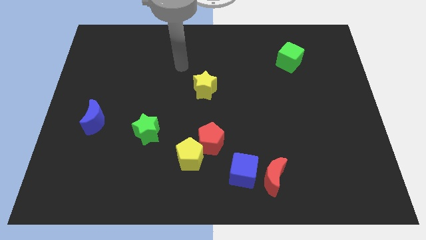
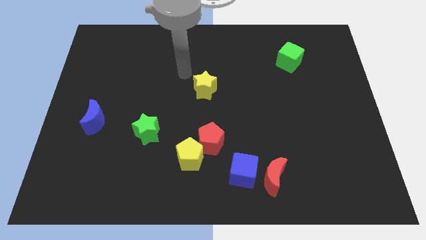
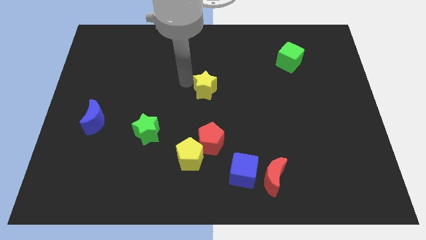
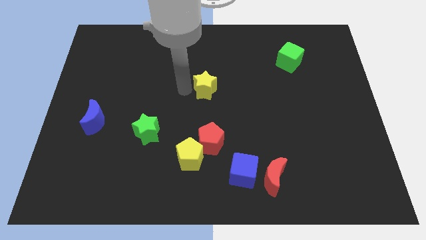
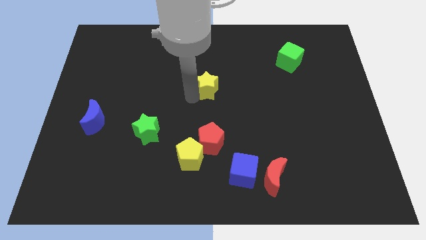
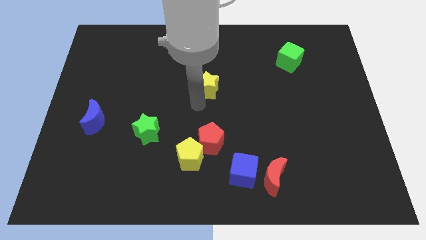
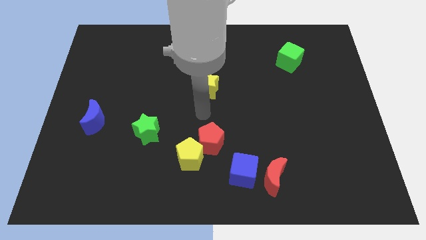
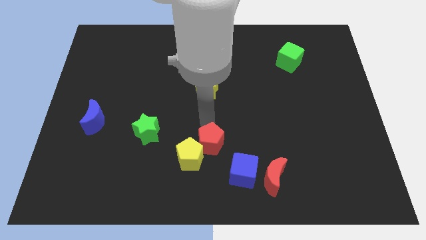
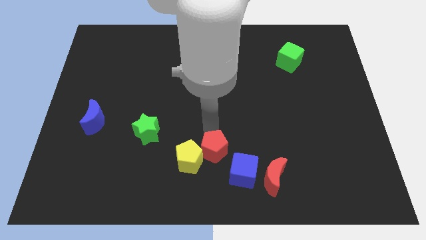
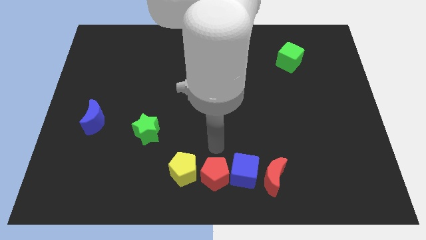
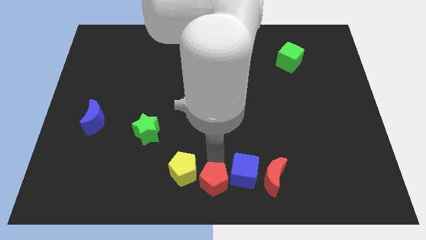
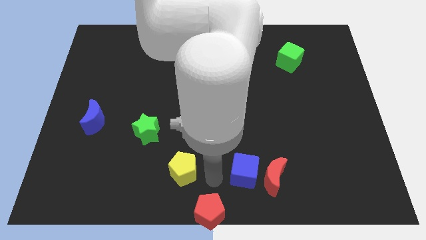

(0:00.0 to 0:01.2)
pull the yellow pentagon apart from the red pentagon

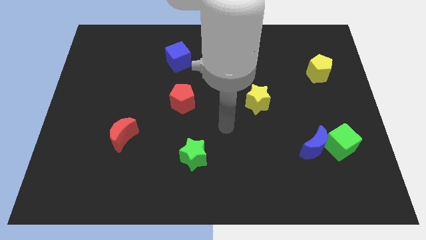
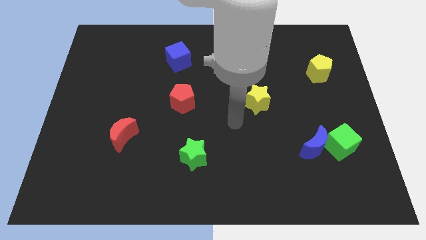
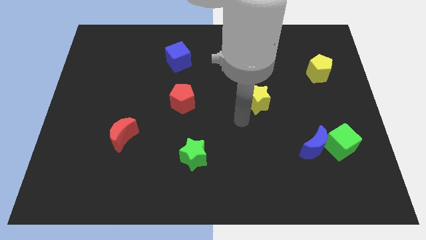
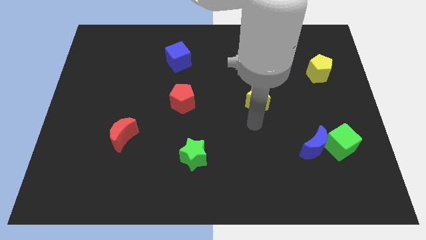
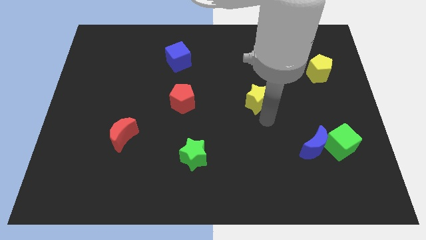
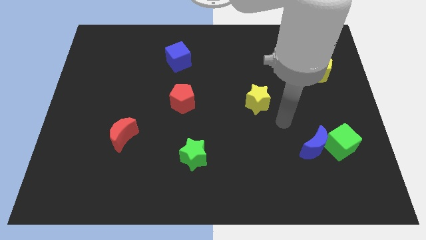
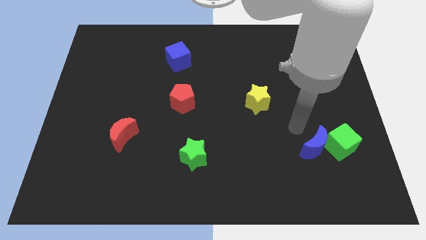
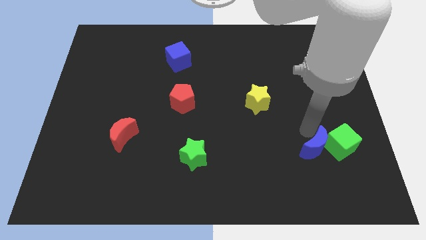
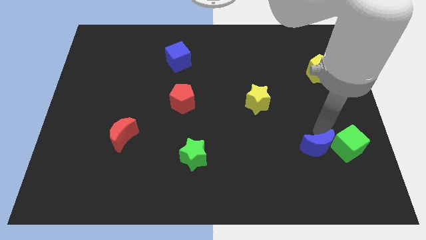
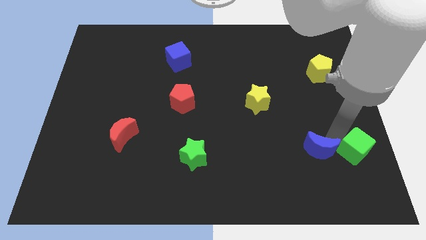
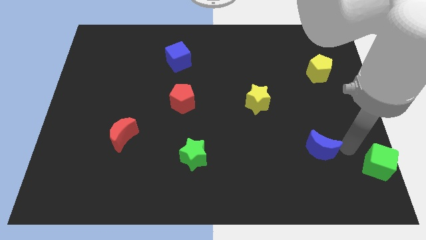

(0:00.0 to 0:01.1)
move the blue moon away from the green cube

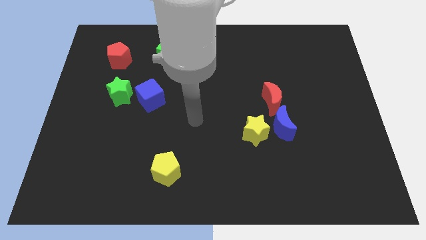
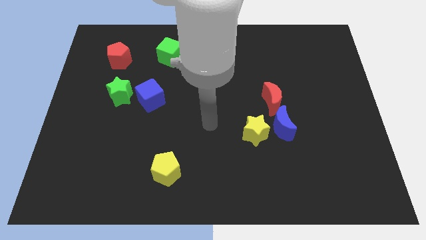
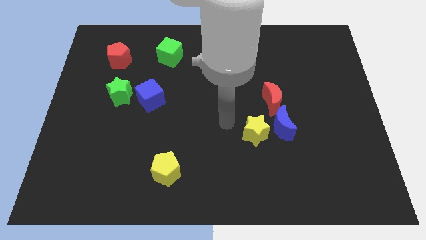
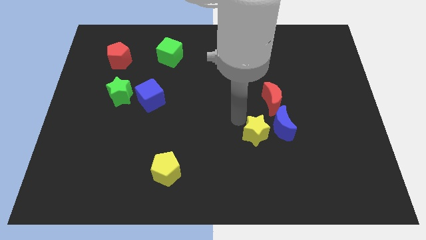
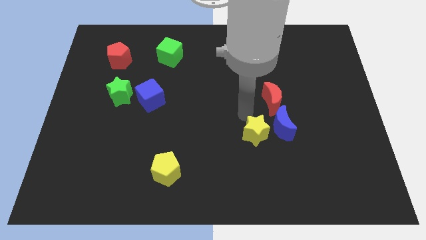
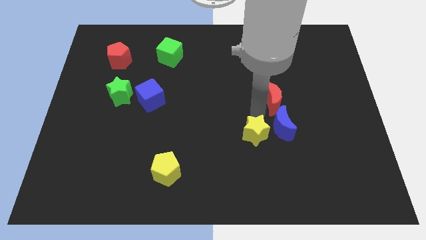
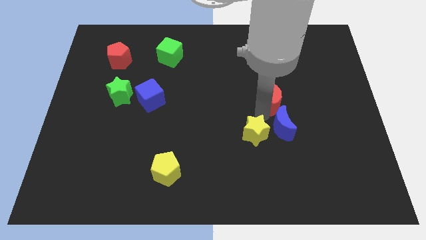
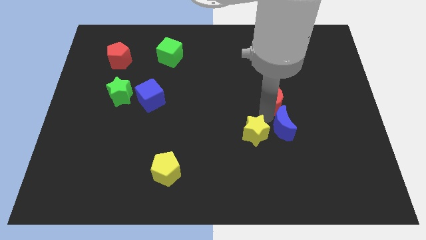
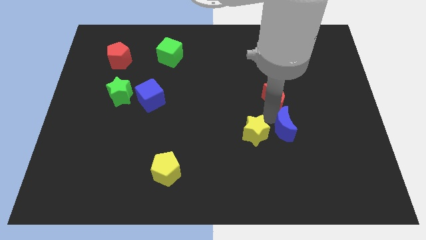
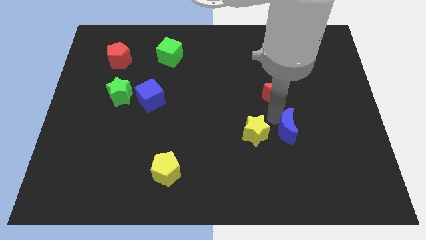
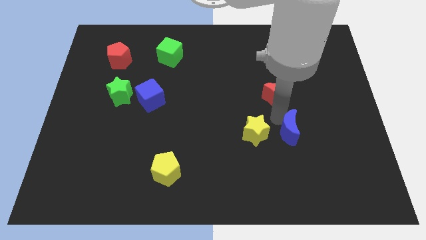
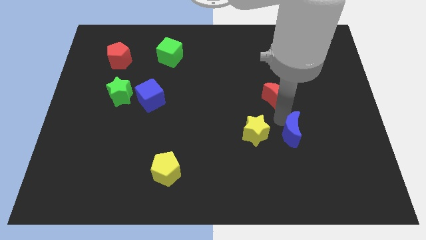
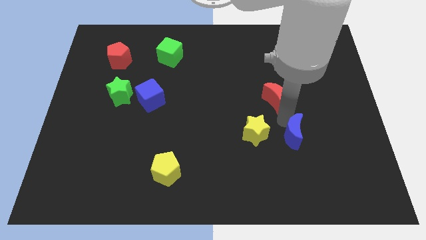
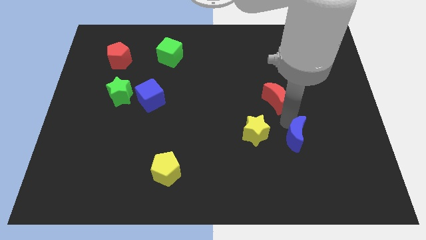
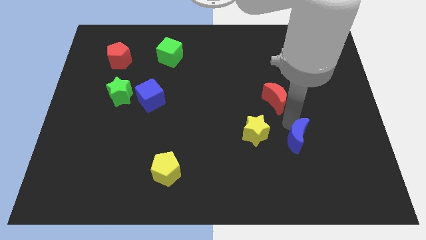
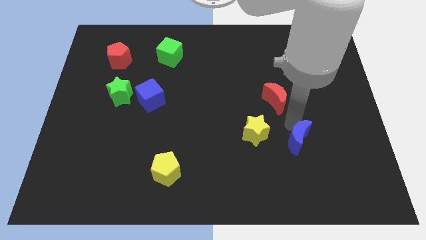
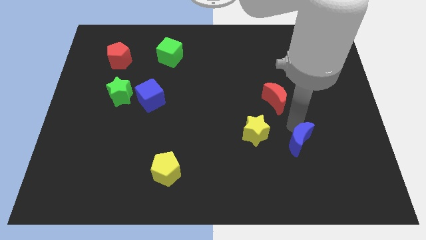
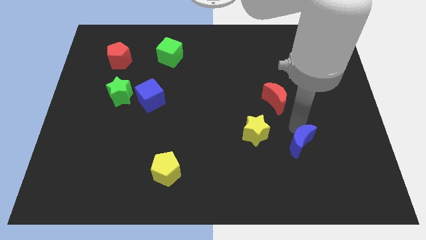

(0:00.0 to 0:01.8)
move the blue moon away from the yellow star and red moon

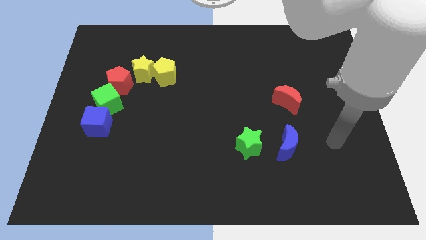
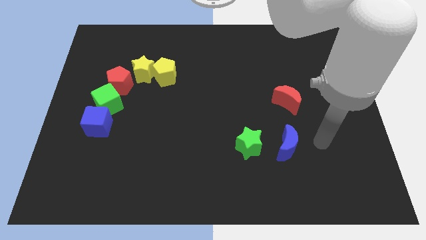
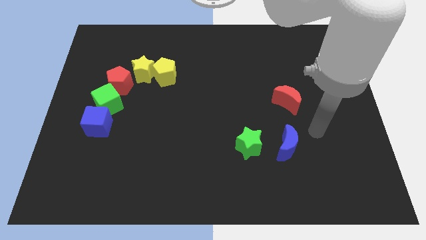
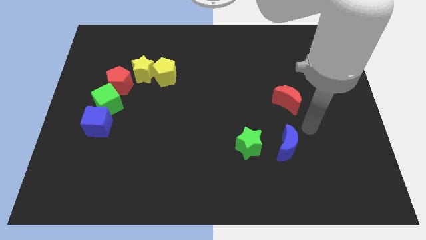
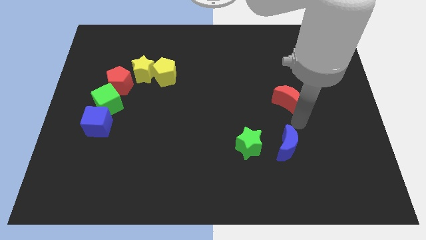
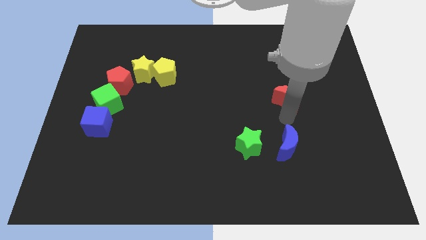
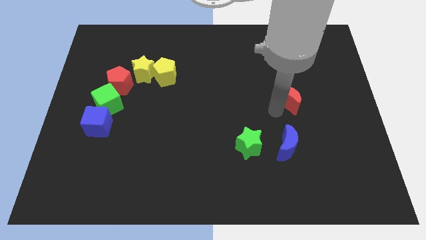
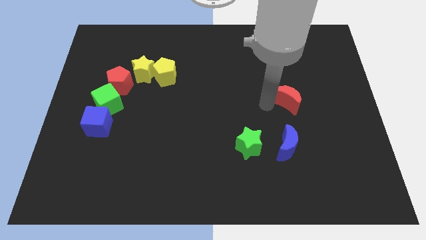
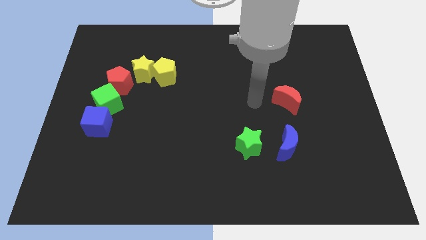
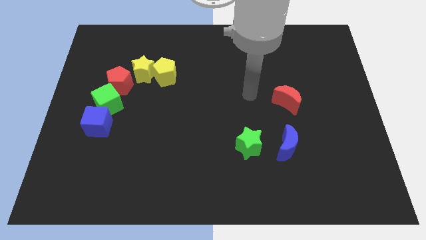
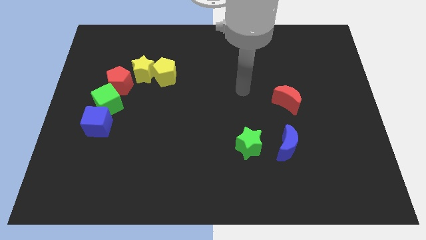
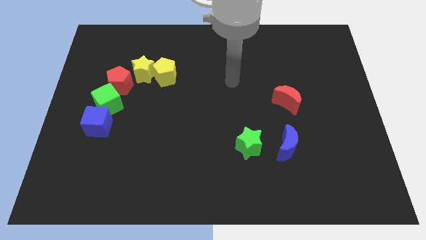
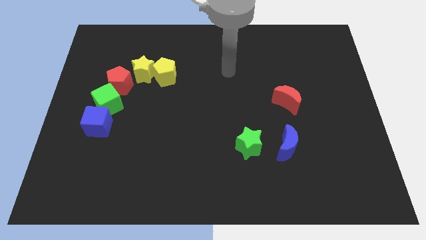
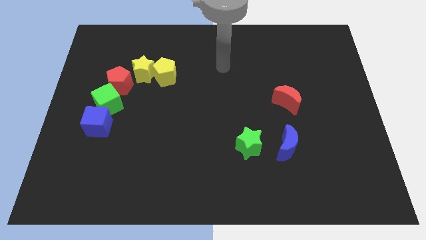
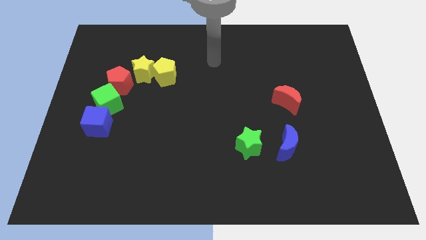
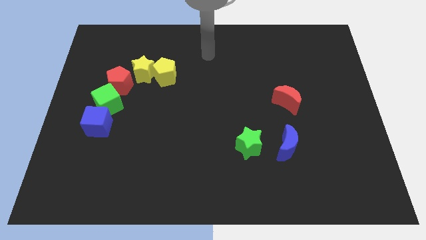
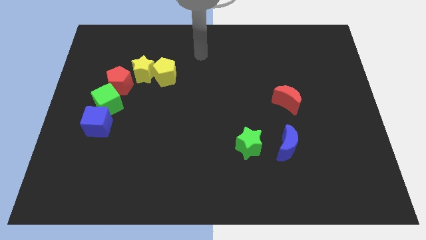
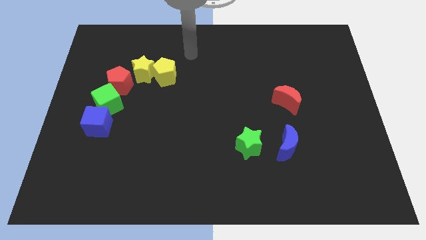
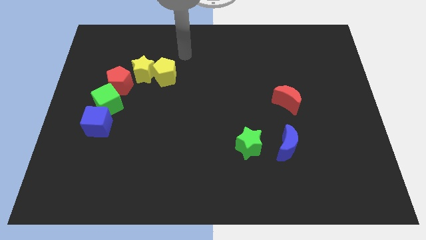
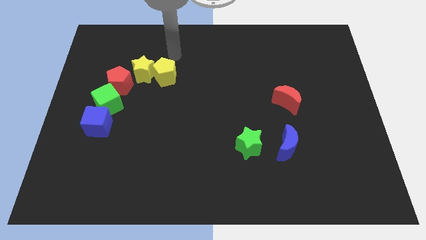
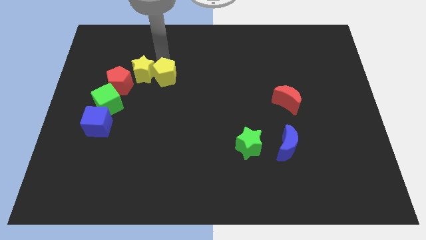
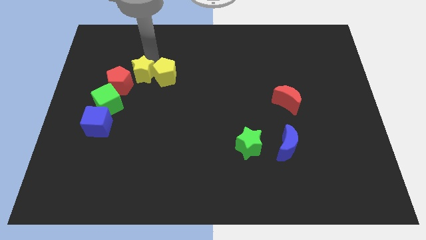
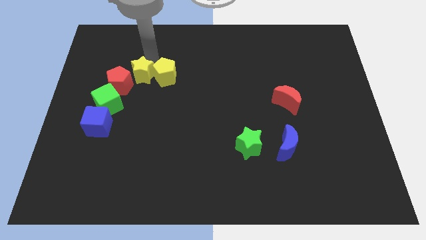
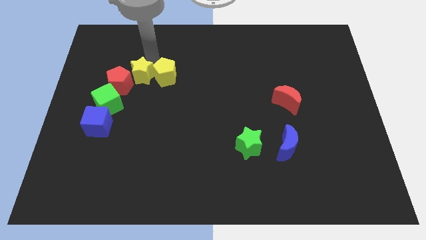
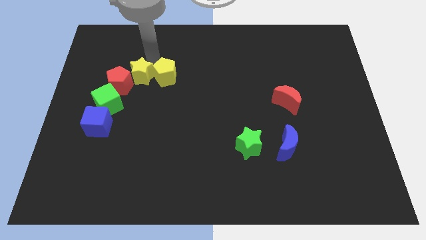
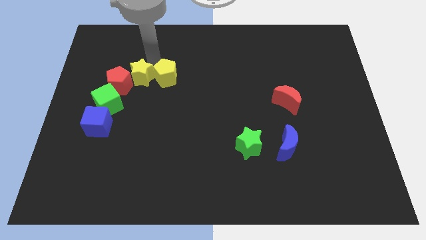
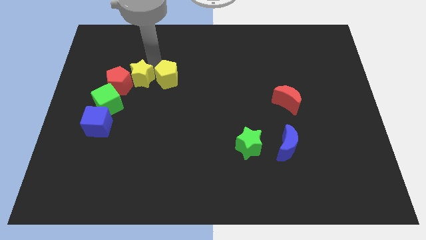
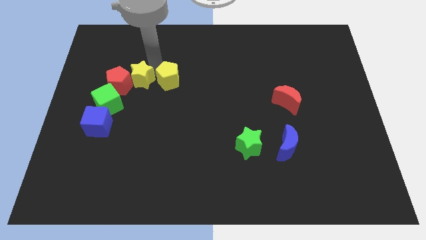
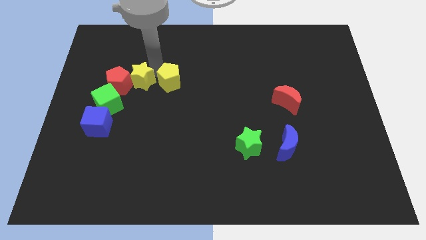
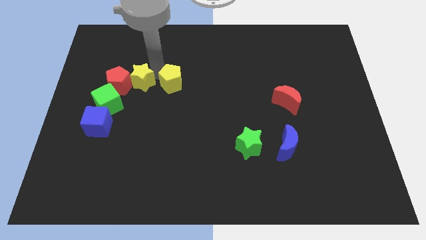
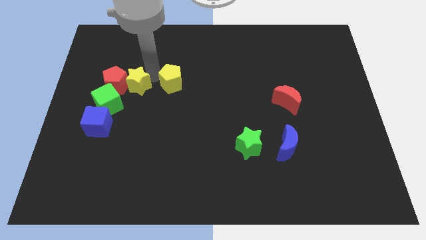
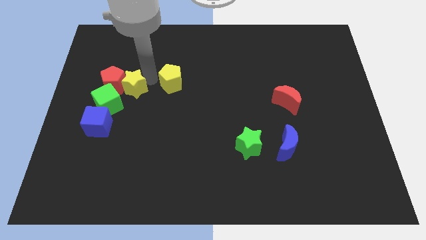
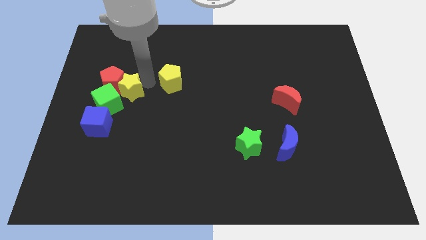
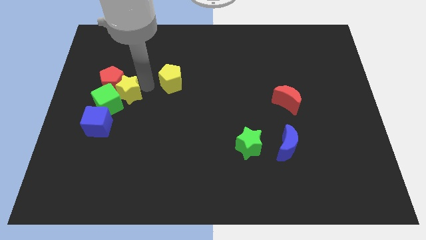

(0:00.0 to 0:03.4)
move the yellow pentagon away from the yellow star

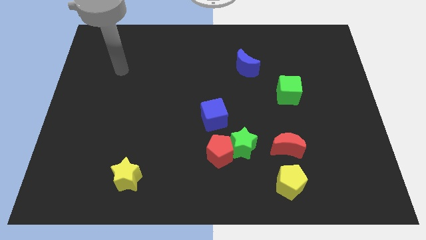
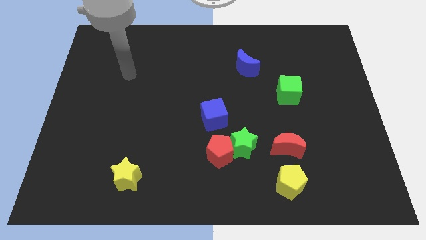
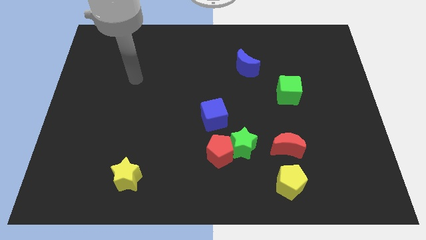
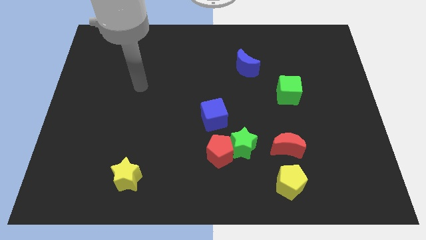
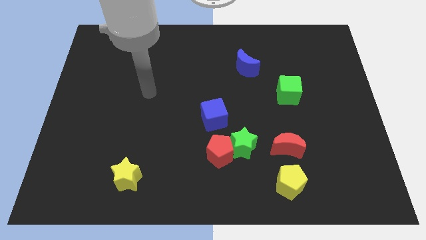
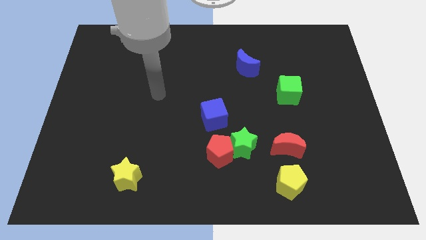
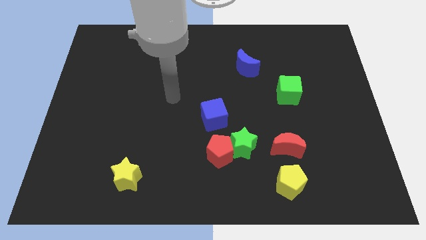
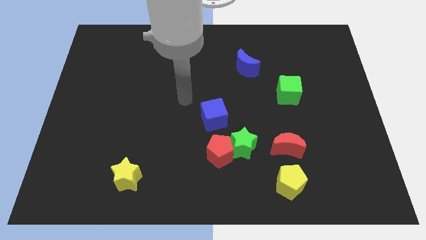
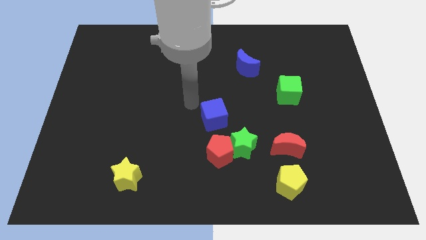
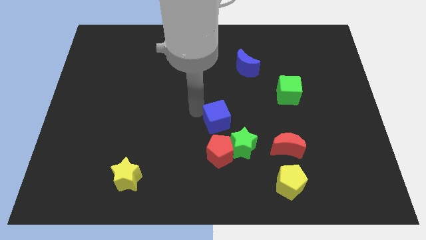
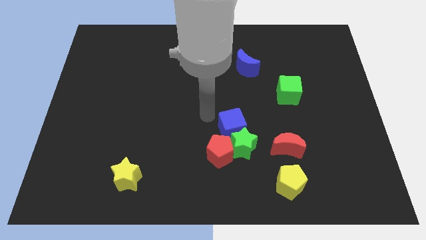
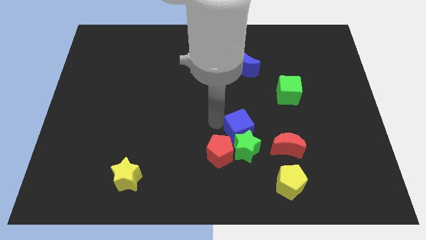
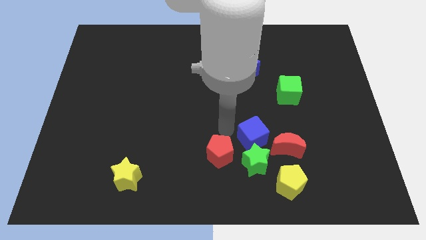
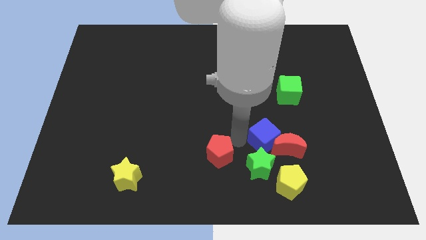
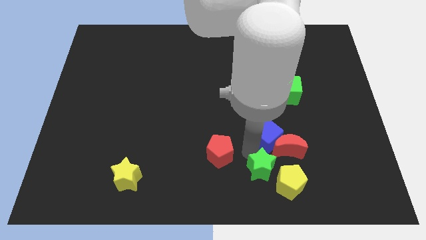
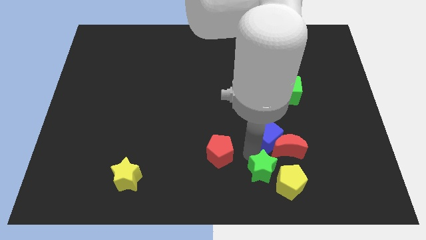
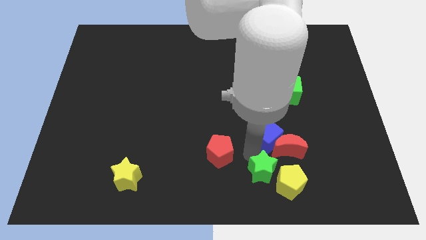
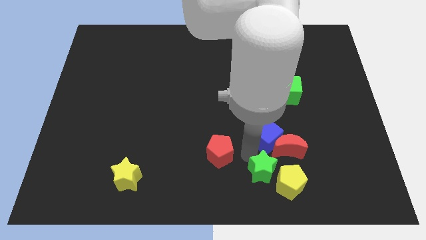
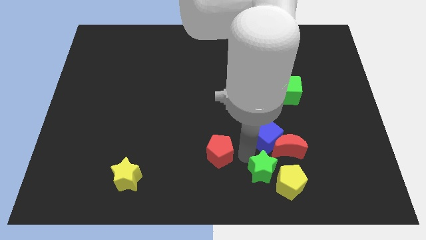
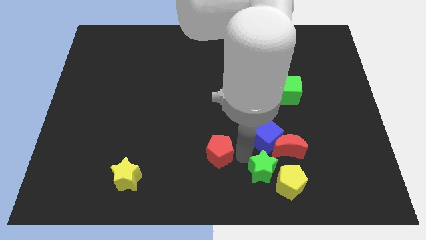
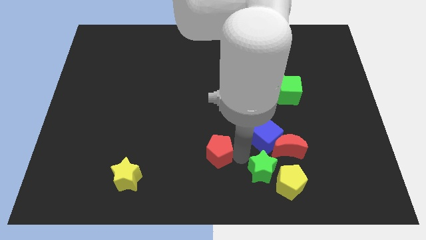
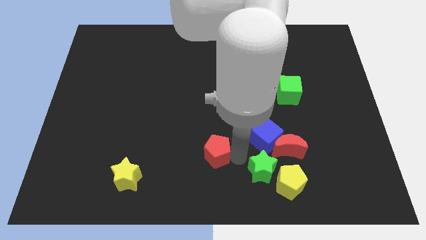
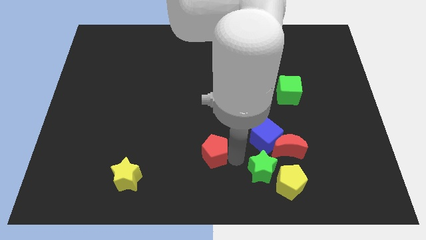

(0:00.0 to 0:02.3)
pull the red pentagon apart from the green star and blue cube
